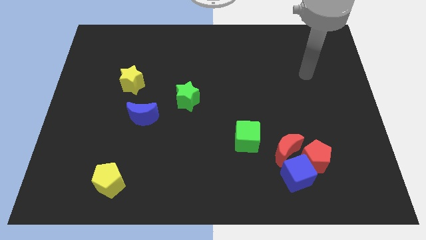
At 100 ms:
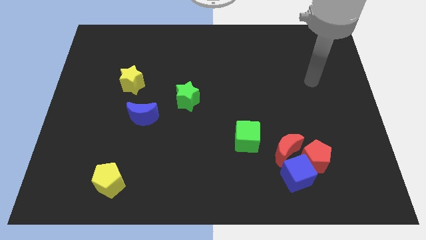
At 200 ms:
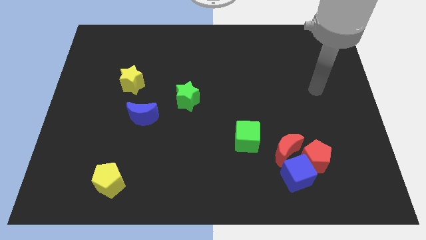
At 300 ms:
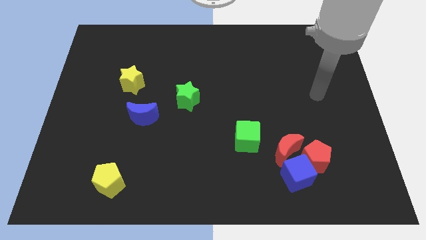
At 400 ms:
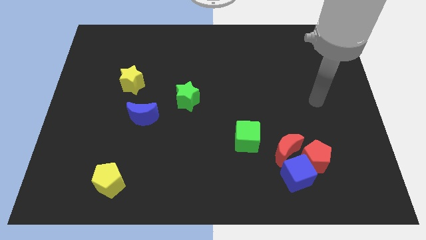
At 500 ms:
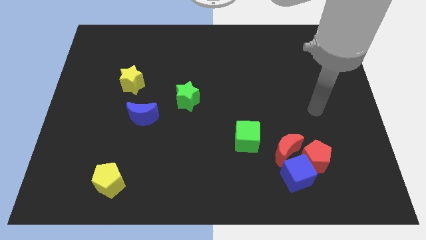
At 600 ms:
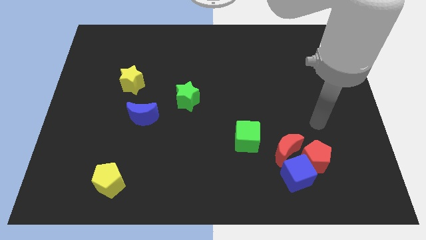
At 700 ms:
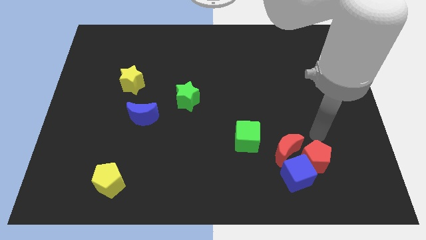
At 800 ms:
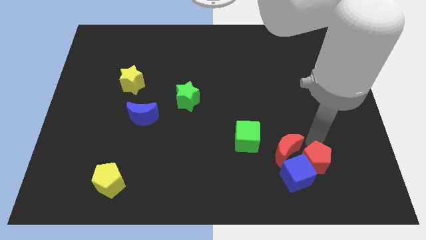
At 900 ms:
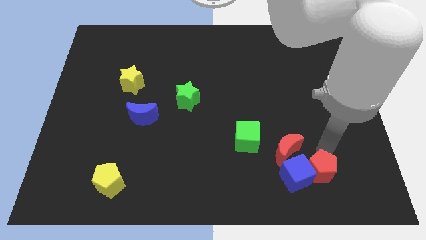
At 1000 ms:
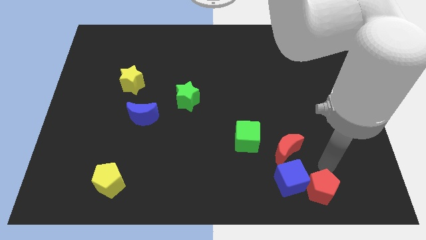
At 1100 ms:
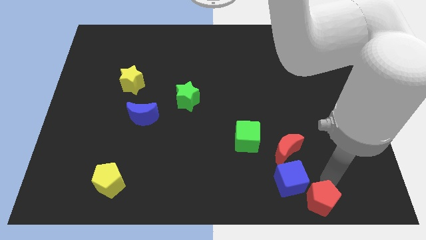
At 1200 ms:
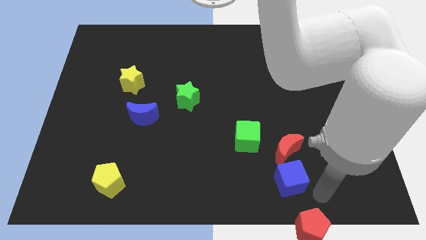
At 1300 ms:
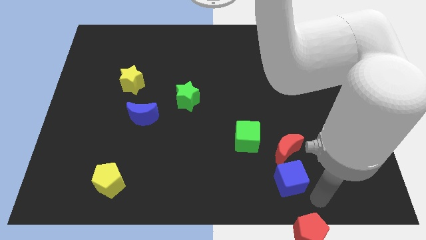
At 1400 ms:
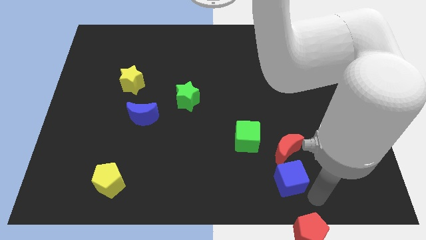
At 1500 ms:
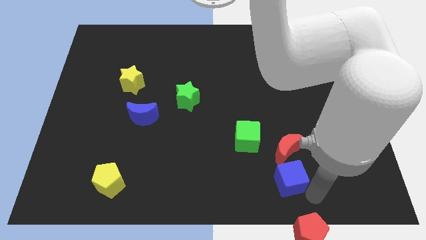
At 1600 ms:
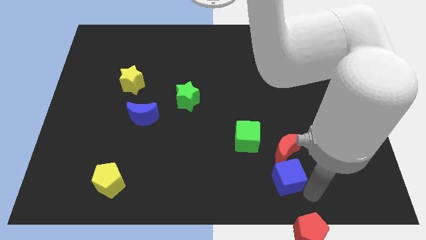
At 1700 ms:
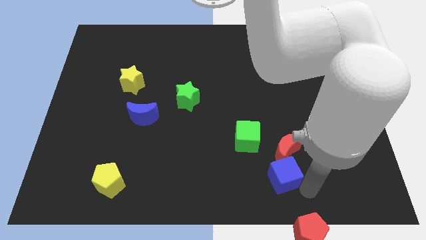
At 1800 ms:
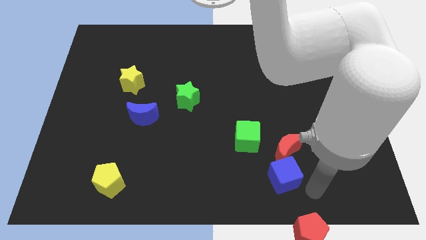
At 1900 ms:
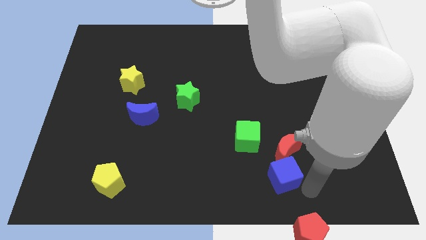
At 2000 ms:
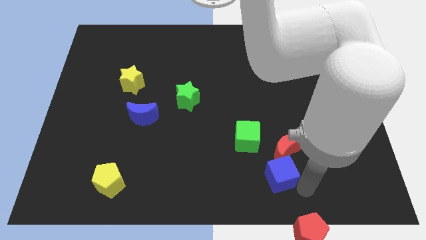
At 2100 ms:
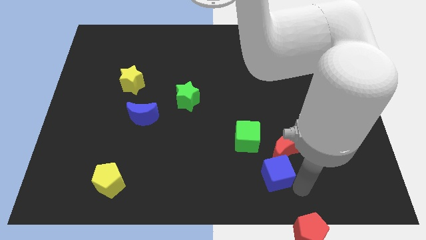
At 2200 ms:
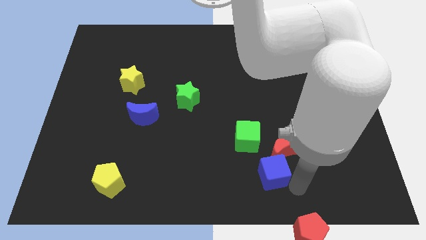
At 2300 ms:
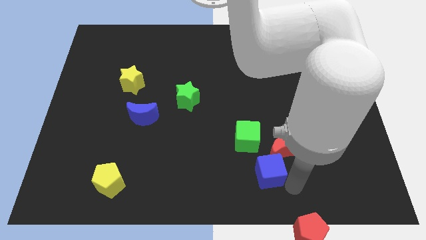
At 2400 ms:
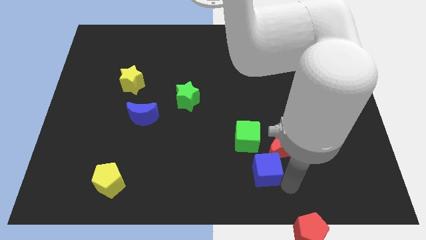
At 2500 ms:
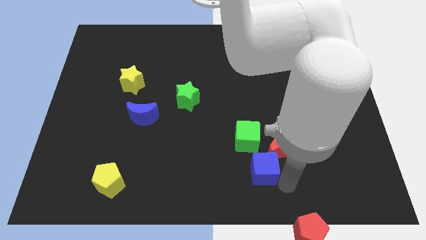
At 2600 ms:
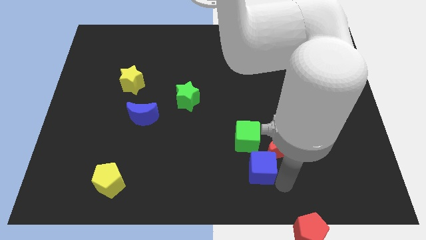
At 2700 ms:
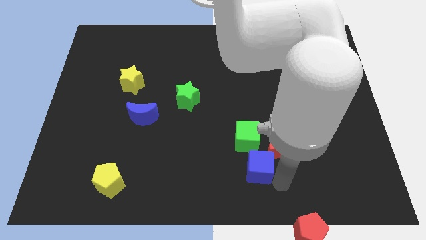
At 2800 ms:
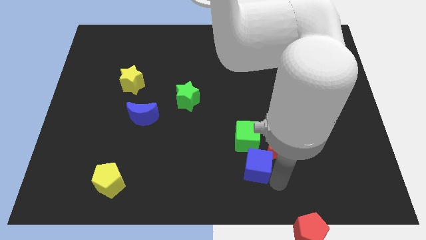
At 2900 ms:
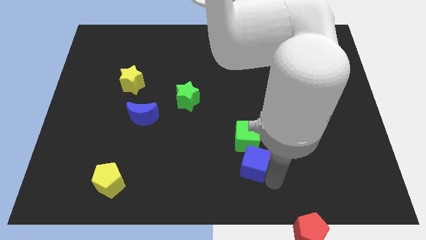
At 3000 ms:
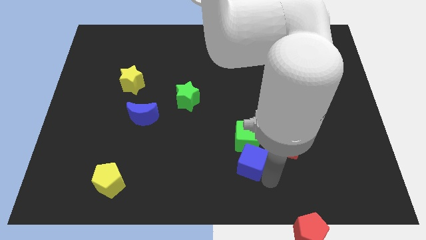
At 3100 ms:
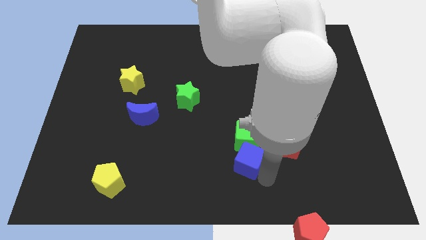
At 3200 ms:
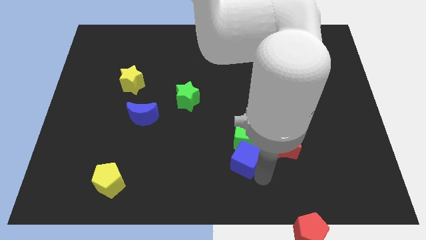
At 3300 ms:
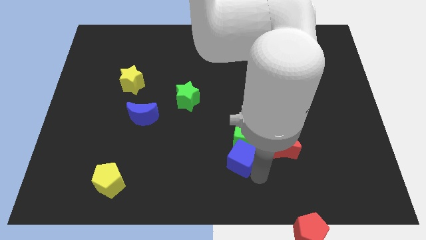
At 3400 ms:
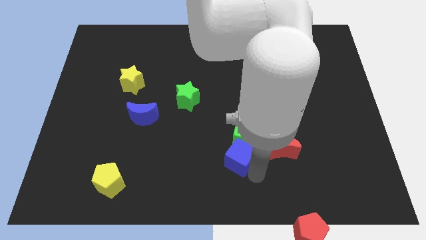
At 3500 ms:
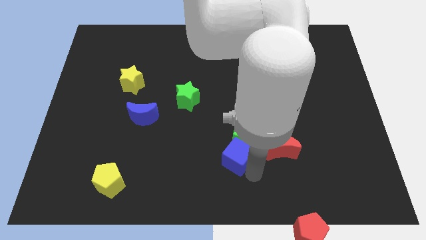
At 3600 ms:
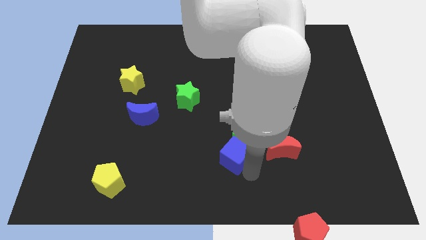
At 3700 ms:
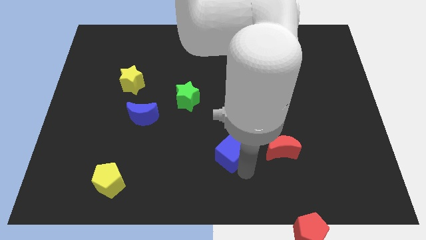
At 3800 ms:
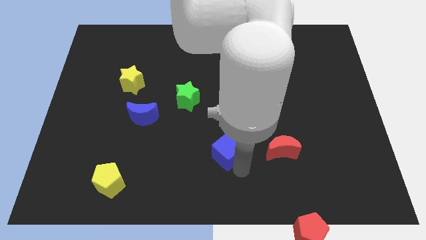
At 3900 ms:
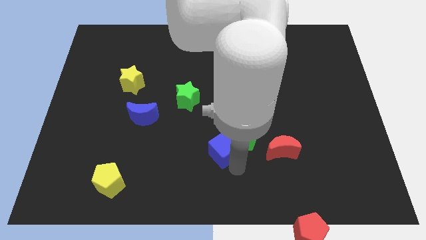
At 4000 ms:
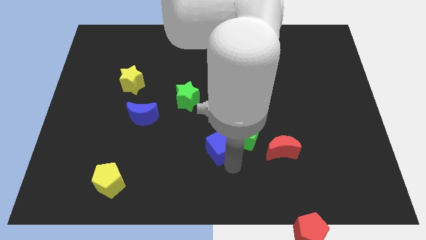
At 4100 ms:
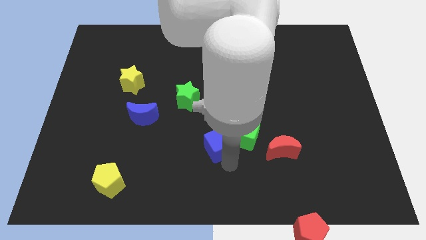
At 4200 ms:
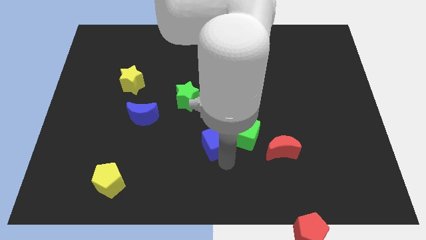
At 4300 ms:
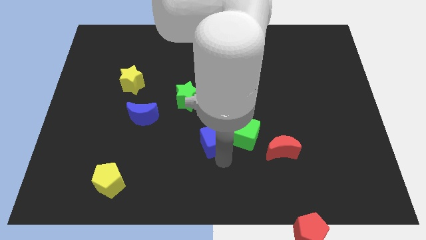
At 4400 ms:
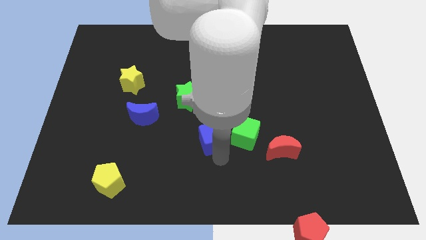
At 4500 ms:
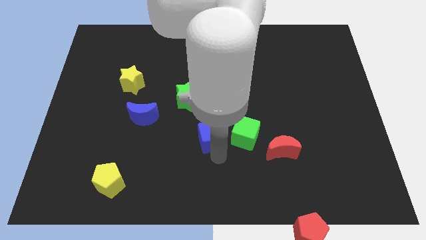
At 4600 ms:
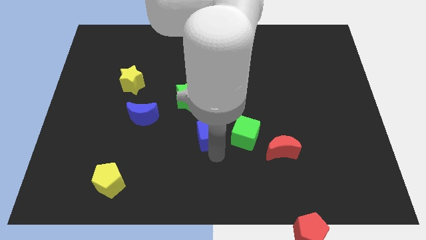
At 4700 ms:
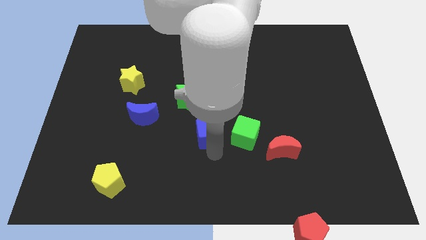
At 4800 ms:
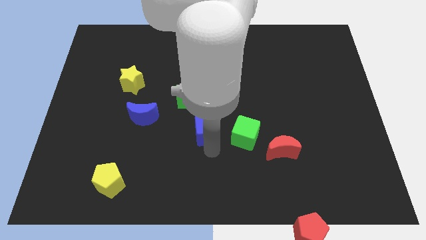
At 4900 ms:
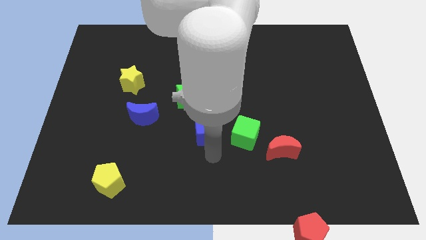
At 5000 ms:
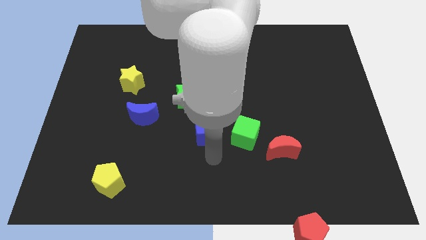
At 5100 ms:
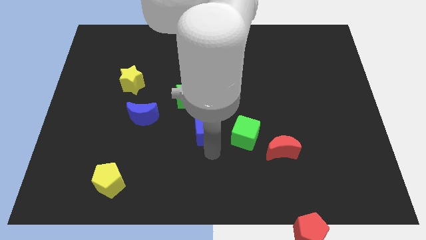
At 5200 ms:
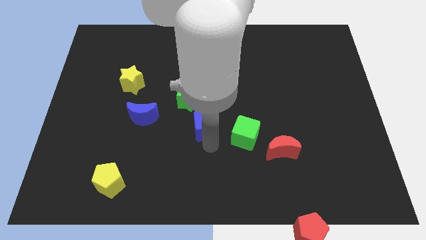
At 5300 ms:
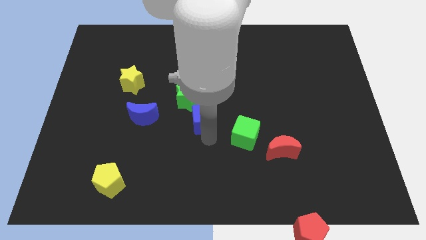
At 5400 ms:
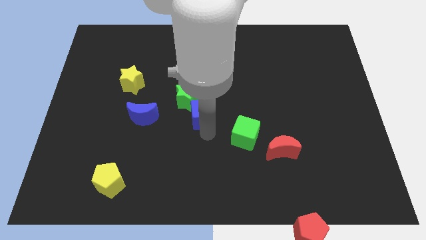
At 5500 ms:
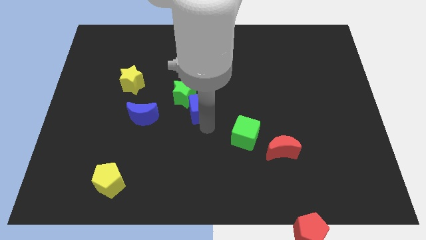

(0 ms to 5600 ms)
slide the blue cube towards the green star

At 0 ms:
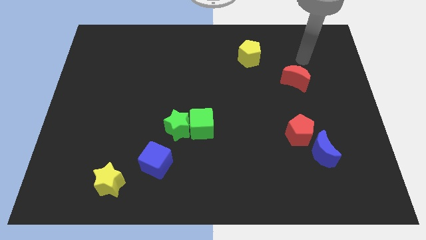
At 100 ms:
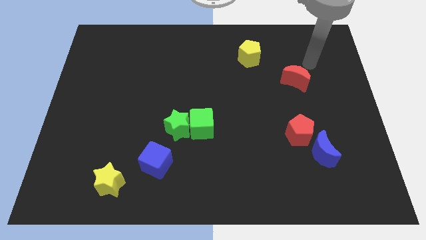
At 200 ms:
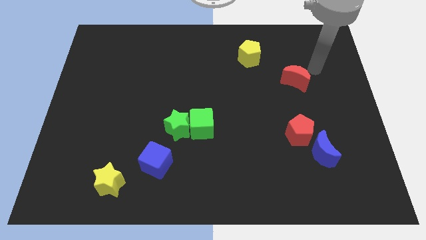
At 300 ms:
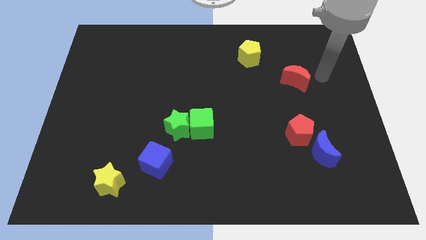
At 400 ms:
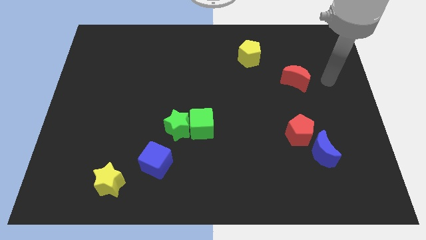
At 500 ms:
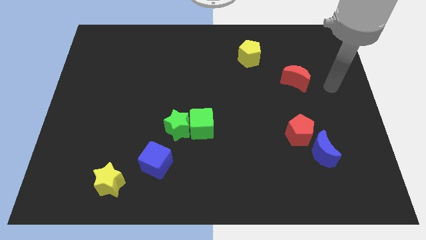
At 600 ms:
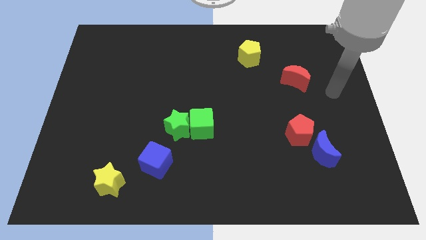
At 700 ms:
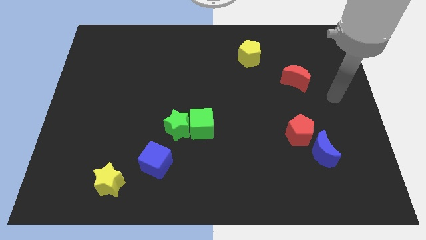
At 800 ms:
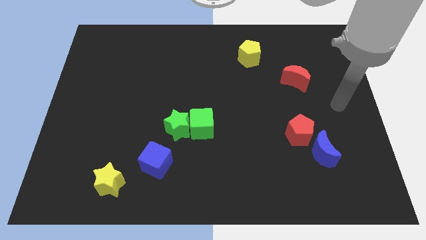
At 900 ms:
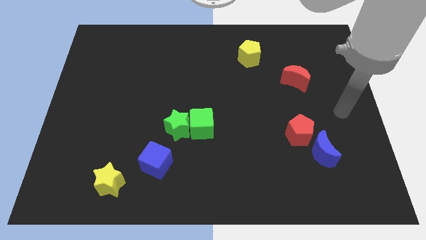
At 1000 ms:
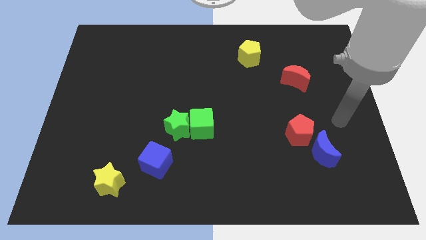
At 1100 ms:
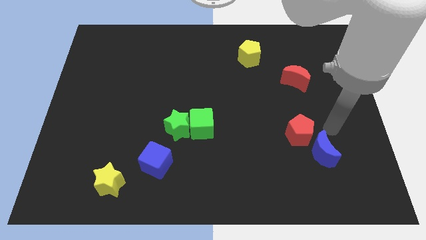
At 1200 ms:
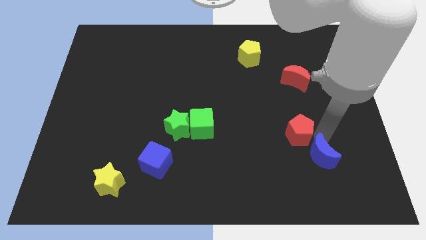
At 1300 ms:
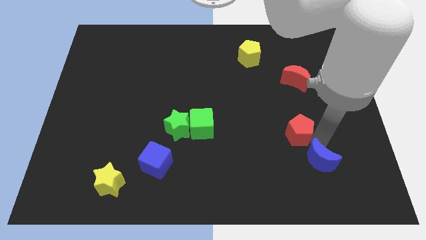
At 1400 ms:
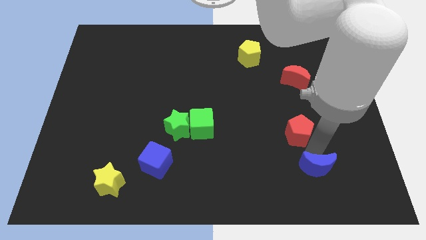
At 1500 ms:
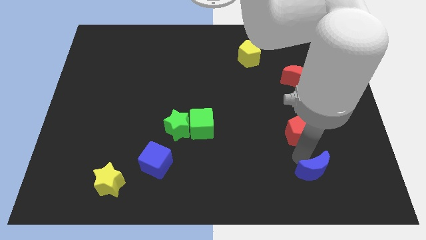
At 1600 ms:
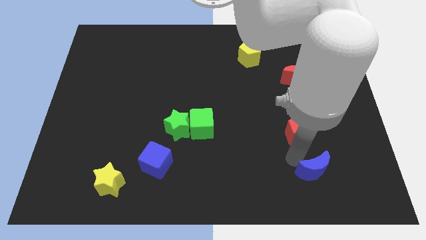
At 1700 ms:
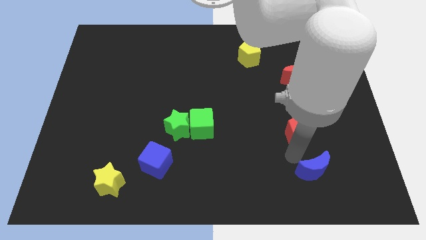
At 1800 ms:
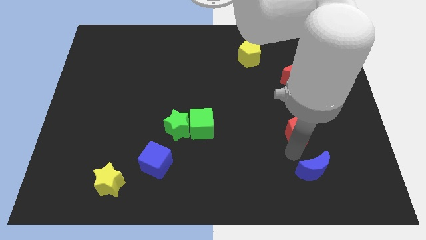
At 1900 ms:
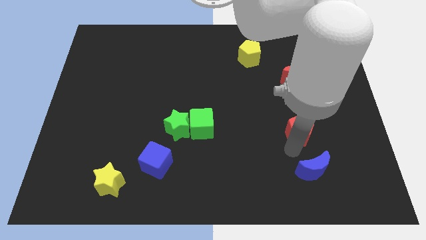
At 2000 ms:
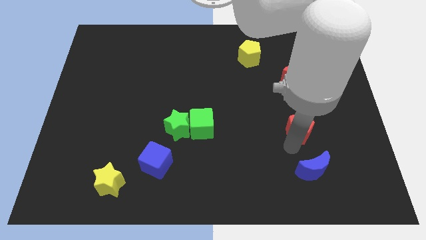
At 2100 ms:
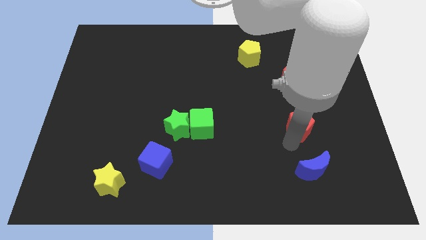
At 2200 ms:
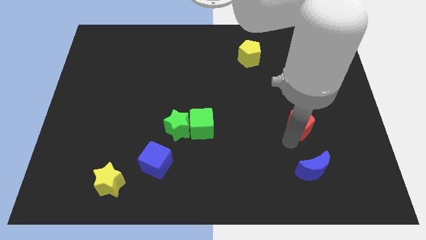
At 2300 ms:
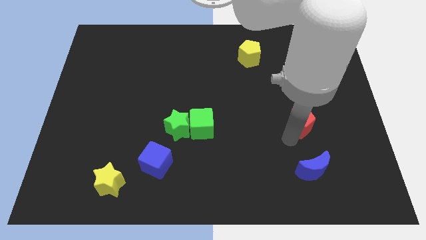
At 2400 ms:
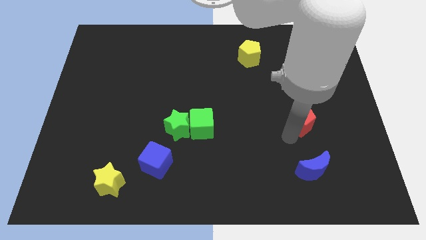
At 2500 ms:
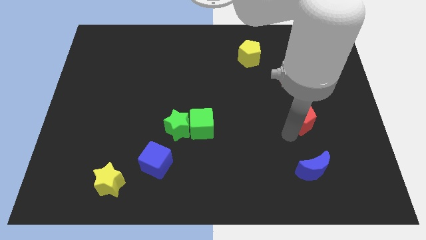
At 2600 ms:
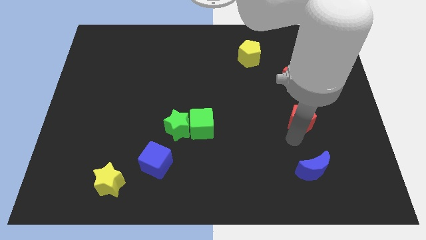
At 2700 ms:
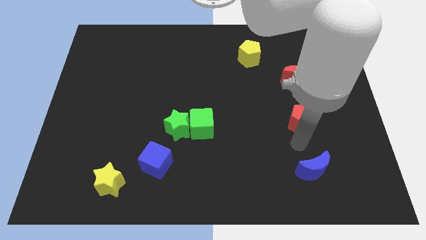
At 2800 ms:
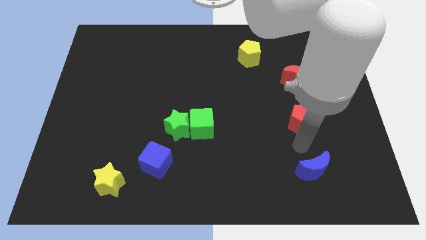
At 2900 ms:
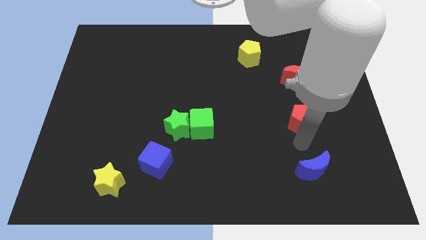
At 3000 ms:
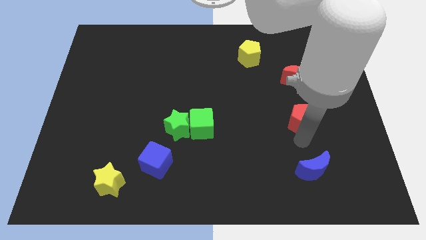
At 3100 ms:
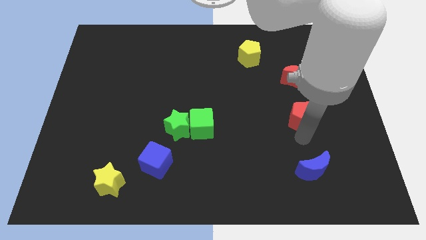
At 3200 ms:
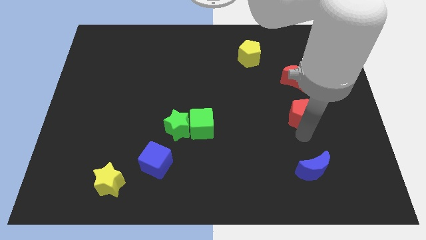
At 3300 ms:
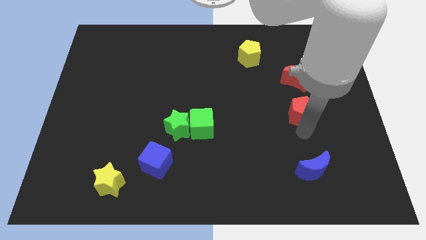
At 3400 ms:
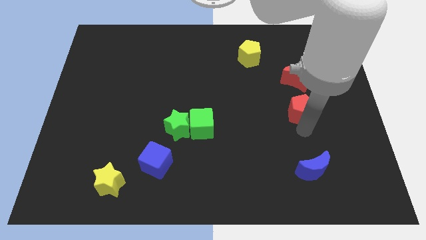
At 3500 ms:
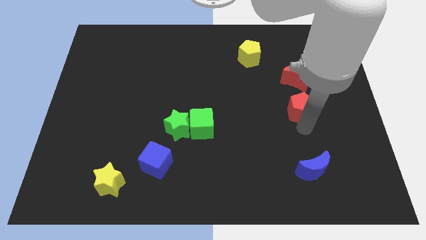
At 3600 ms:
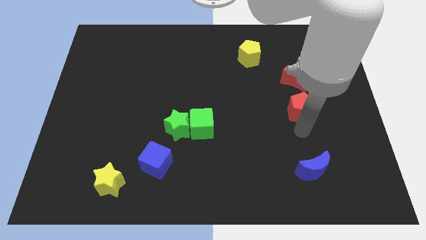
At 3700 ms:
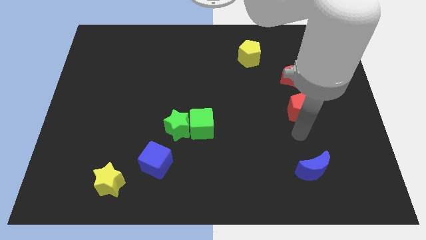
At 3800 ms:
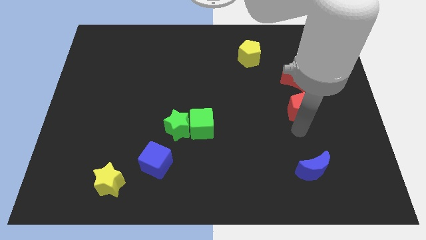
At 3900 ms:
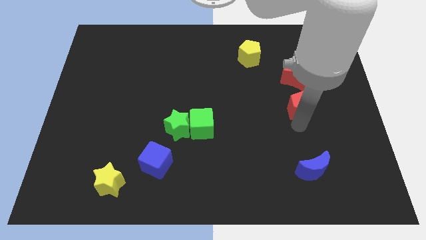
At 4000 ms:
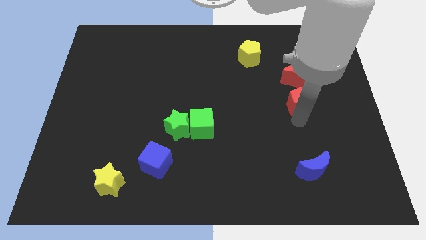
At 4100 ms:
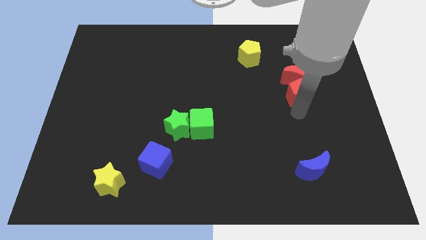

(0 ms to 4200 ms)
slide the red pentagon close to the red moon
